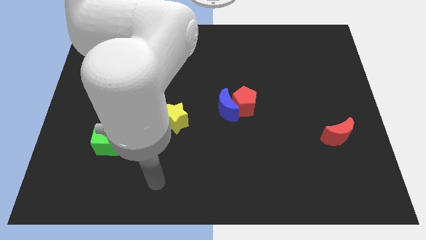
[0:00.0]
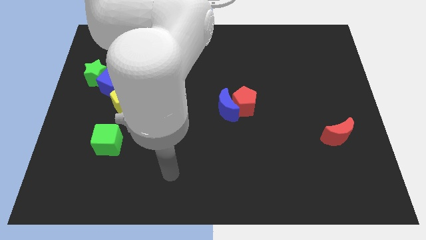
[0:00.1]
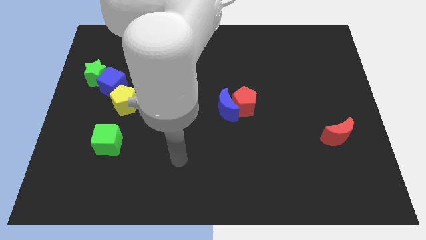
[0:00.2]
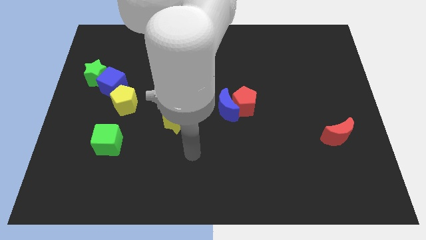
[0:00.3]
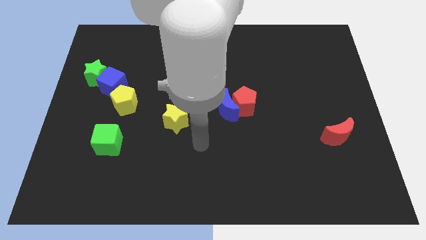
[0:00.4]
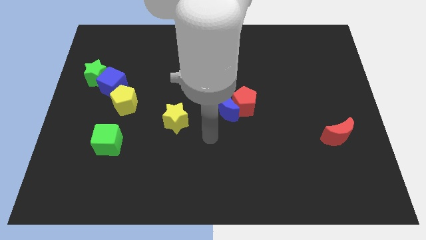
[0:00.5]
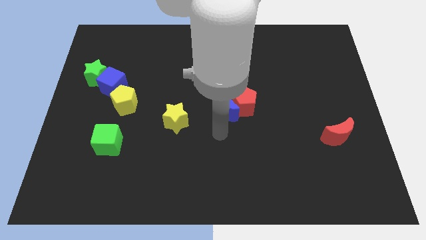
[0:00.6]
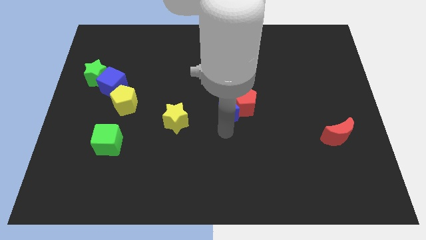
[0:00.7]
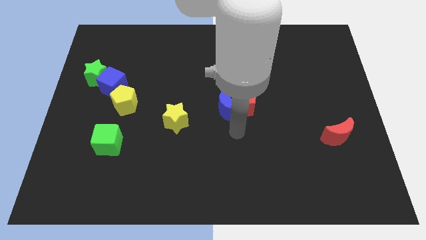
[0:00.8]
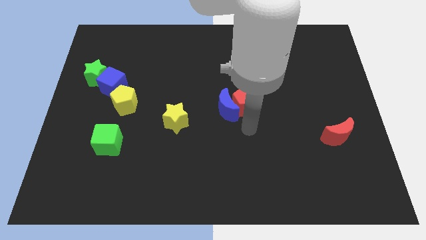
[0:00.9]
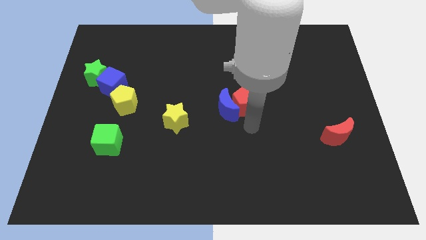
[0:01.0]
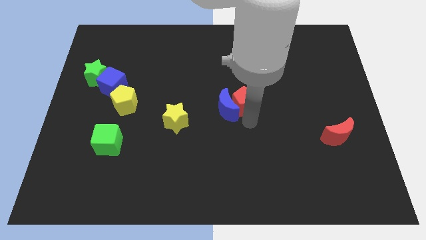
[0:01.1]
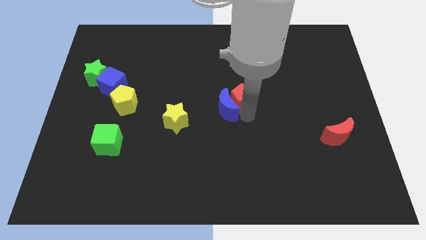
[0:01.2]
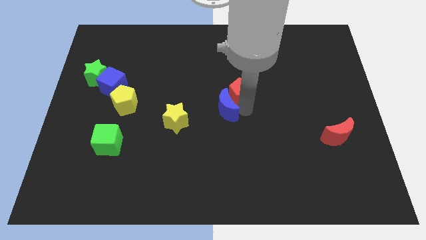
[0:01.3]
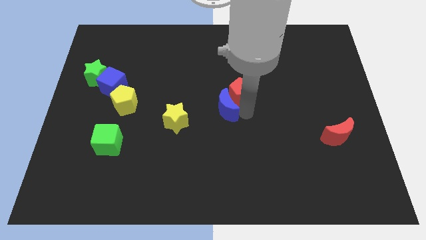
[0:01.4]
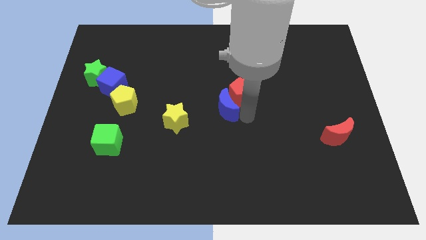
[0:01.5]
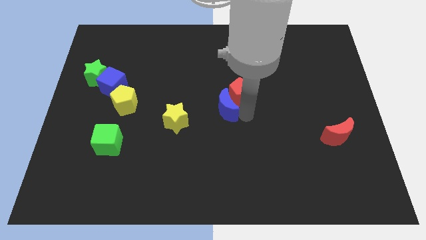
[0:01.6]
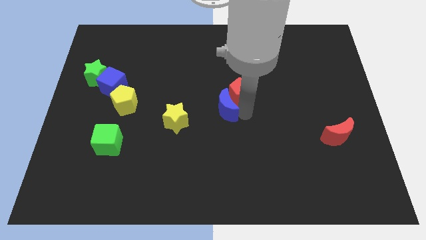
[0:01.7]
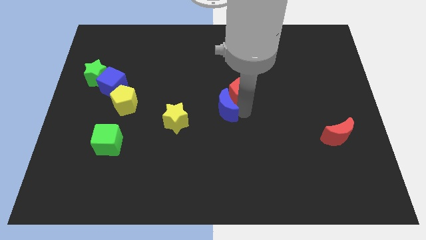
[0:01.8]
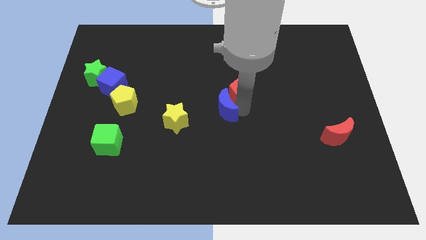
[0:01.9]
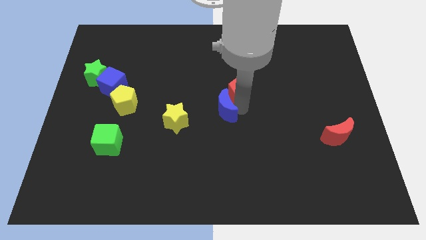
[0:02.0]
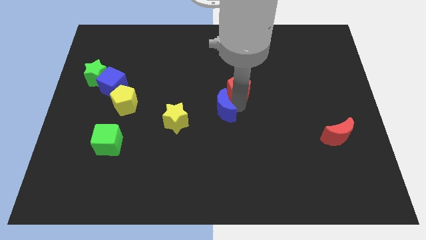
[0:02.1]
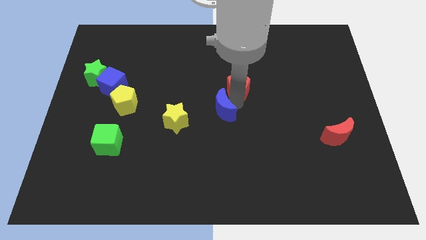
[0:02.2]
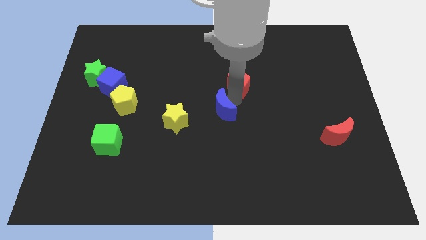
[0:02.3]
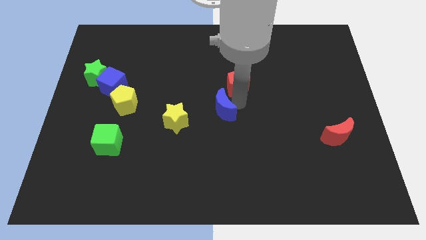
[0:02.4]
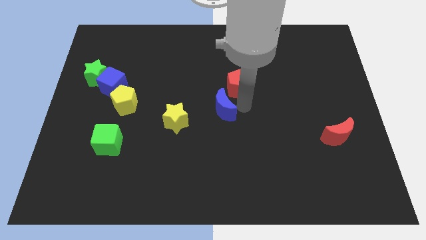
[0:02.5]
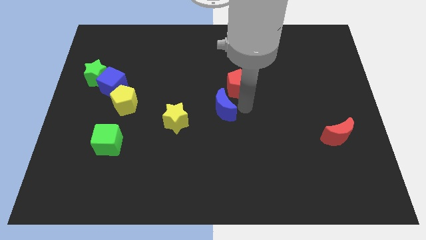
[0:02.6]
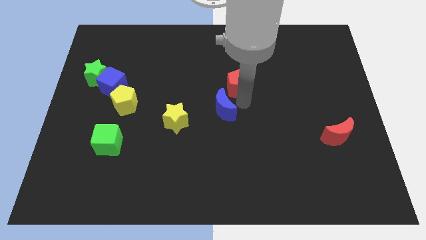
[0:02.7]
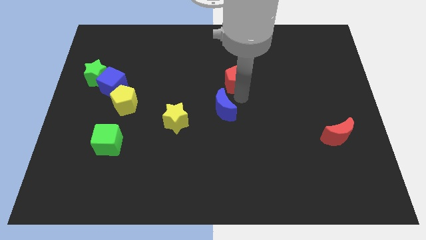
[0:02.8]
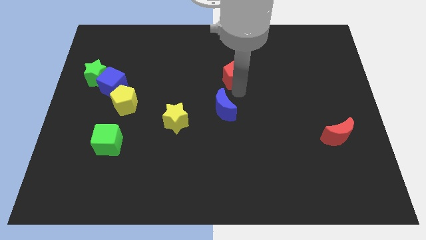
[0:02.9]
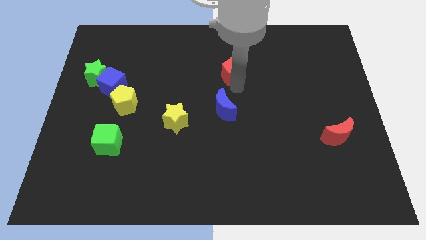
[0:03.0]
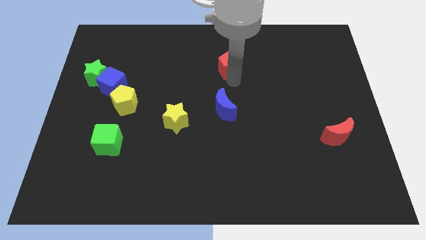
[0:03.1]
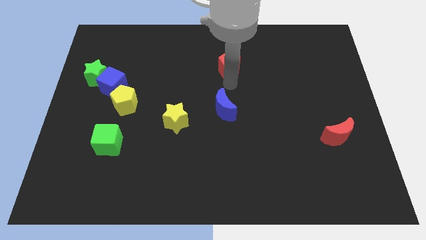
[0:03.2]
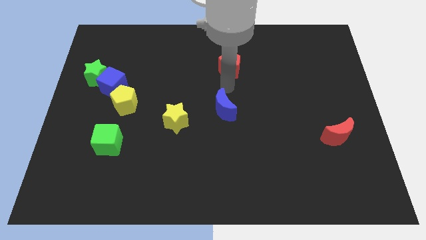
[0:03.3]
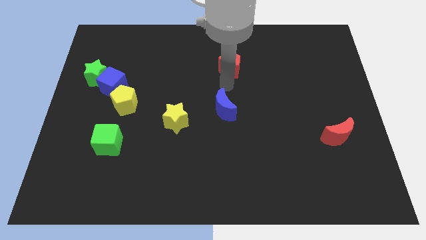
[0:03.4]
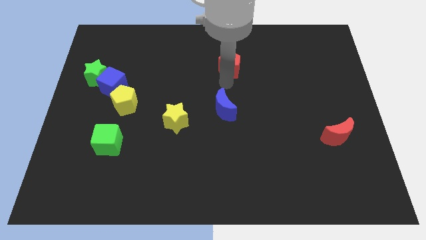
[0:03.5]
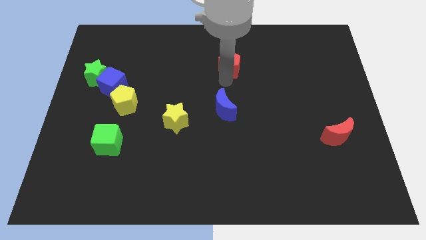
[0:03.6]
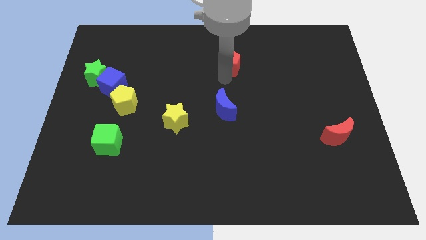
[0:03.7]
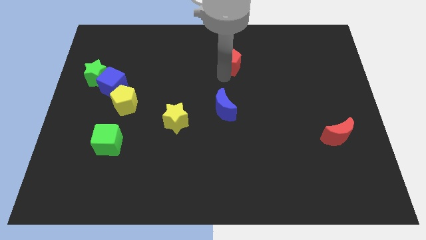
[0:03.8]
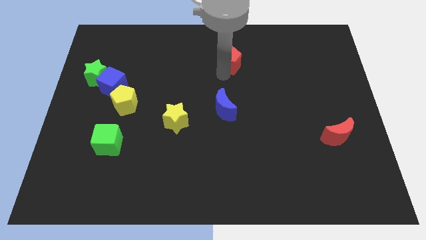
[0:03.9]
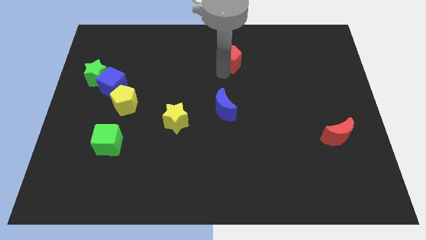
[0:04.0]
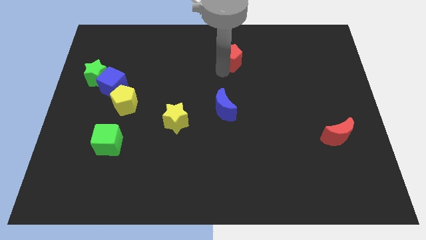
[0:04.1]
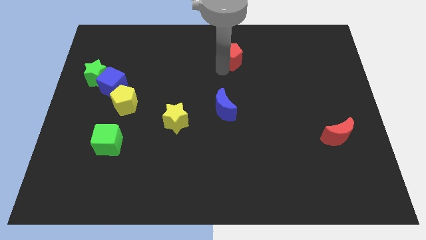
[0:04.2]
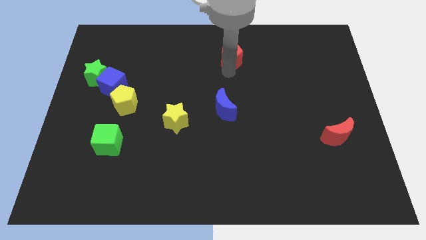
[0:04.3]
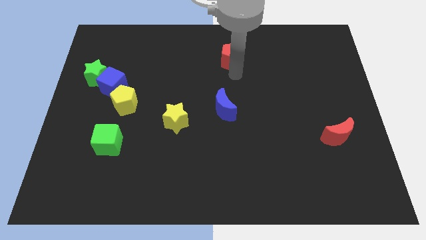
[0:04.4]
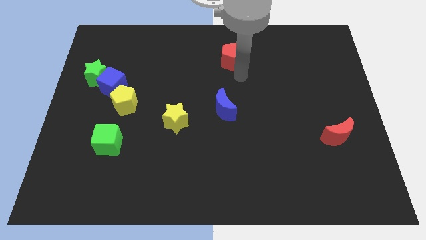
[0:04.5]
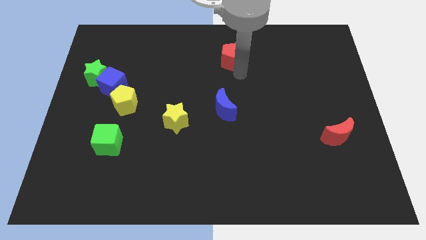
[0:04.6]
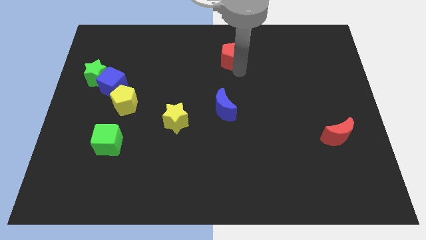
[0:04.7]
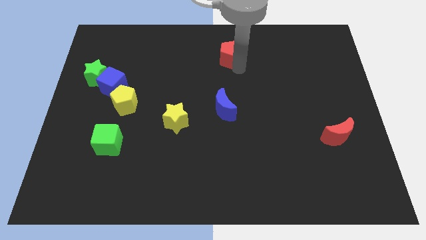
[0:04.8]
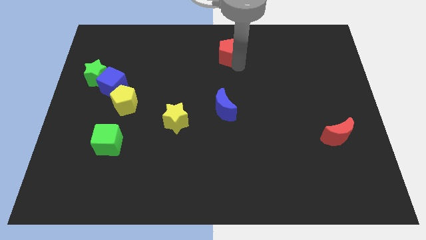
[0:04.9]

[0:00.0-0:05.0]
move the red pentagon to the top side

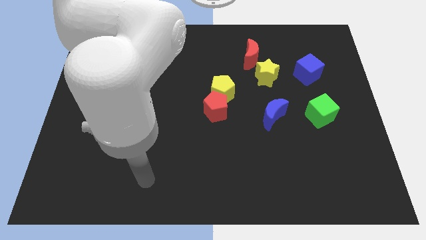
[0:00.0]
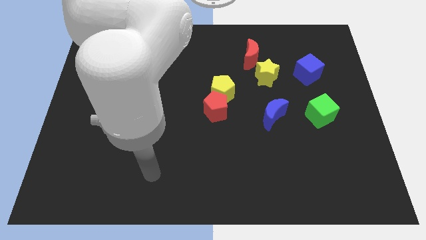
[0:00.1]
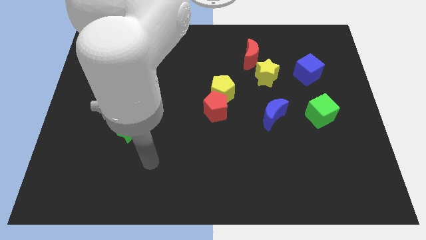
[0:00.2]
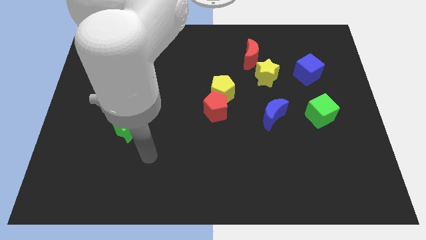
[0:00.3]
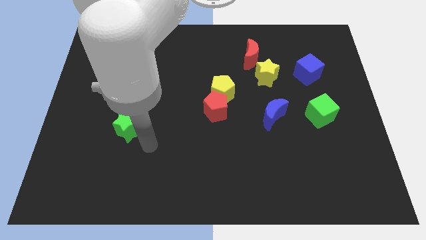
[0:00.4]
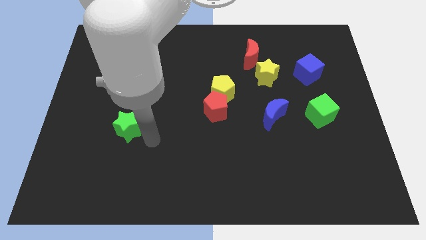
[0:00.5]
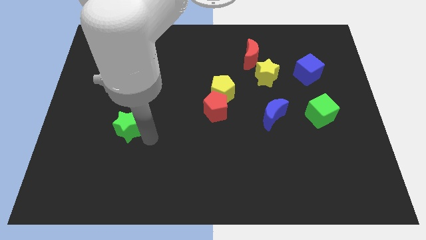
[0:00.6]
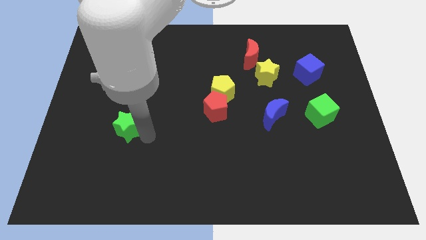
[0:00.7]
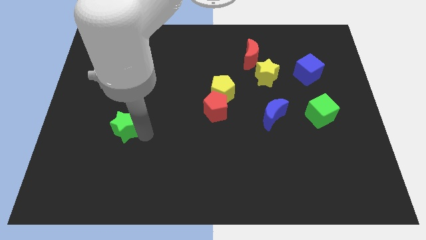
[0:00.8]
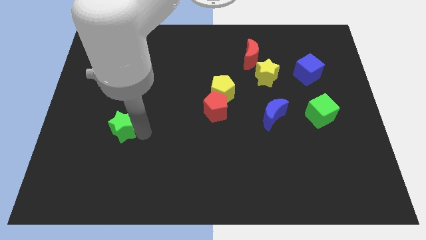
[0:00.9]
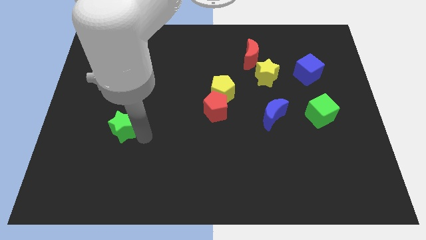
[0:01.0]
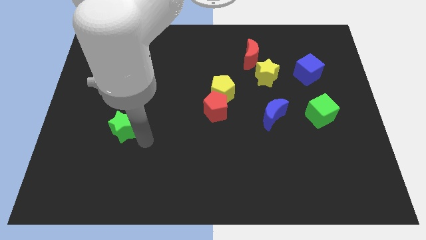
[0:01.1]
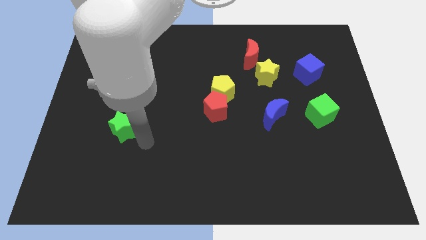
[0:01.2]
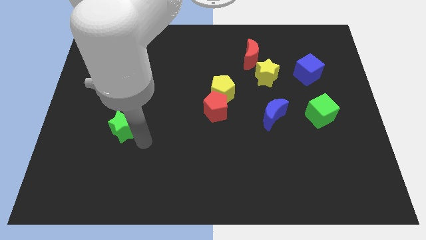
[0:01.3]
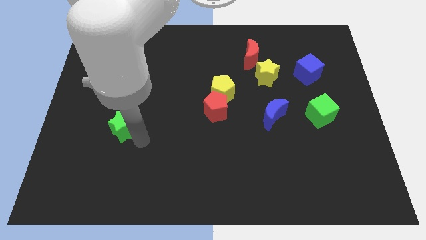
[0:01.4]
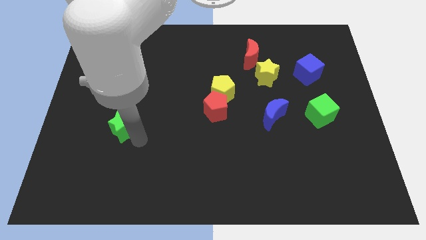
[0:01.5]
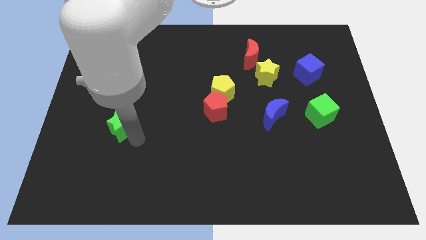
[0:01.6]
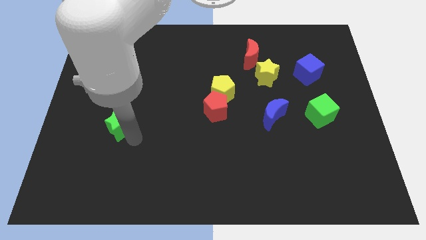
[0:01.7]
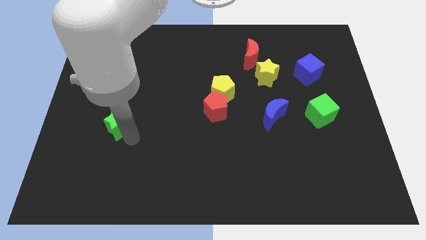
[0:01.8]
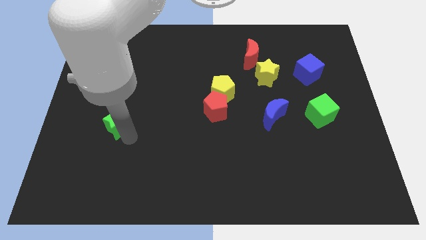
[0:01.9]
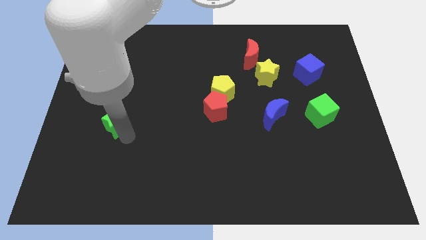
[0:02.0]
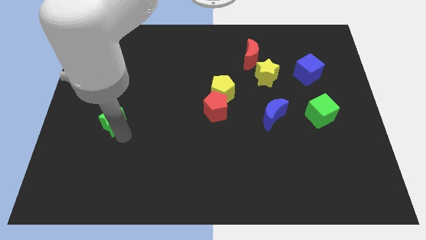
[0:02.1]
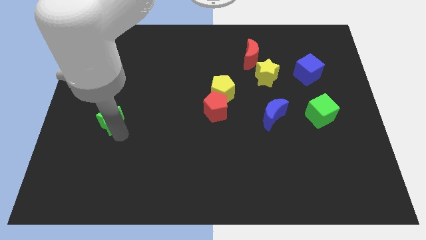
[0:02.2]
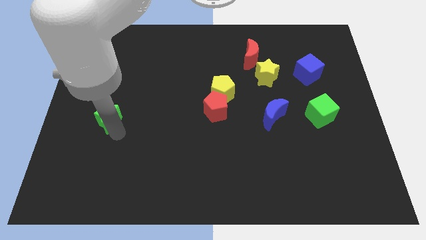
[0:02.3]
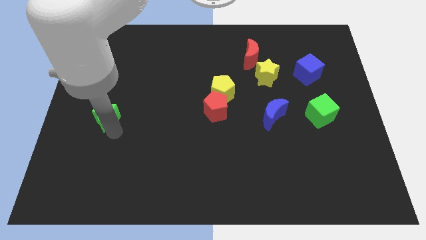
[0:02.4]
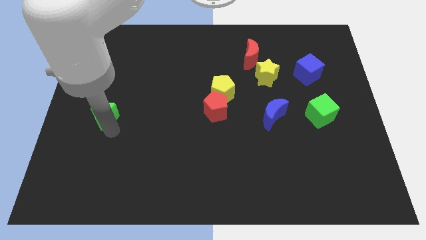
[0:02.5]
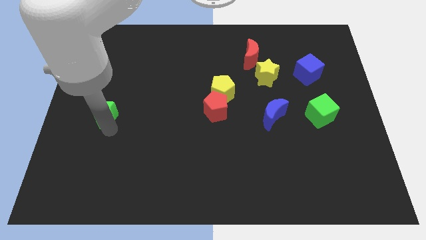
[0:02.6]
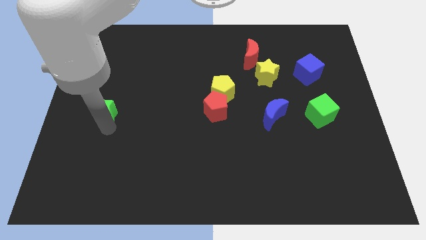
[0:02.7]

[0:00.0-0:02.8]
push the green star to the center left
